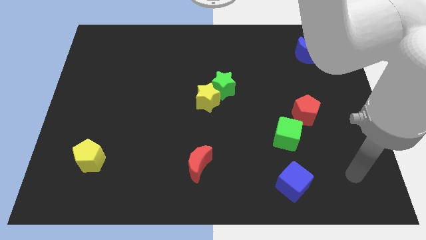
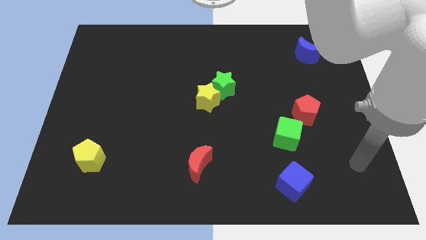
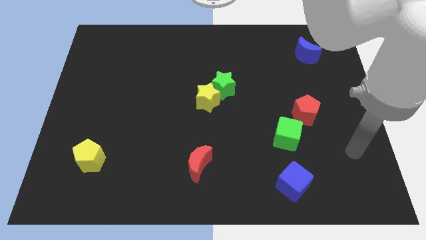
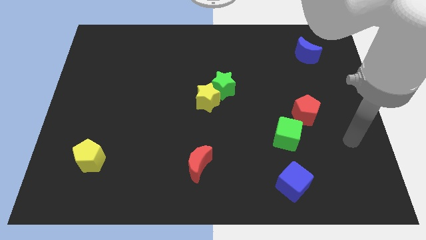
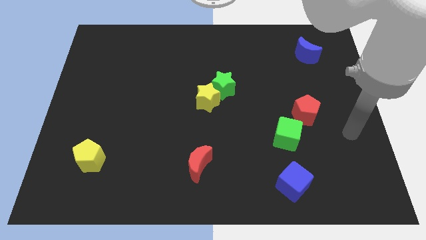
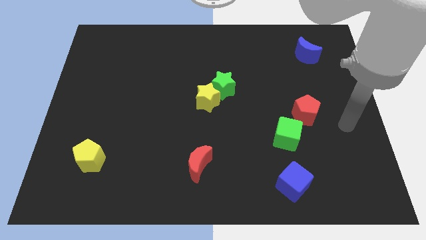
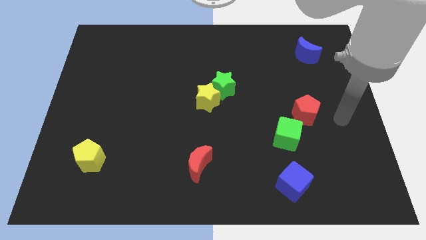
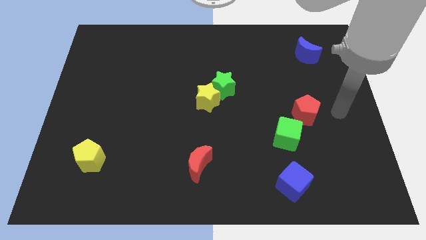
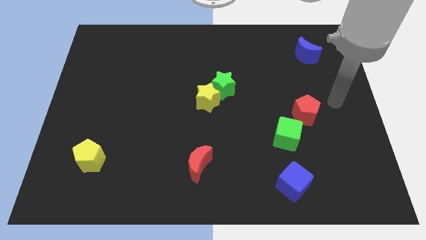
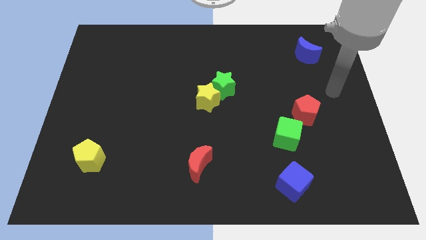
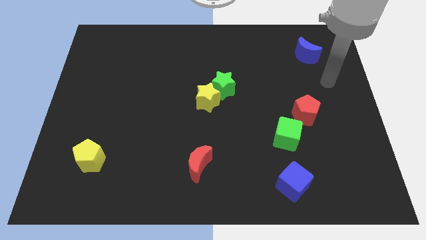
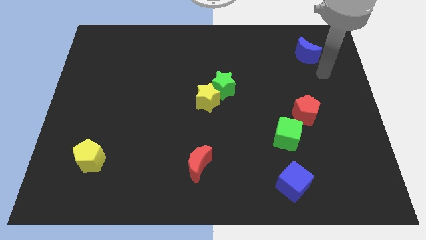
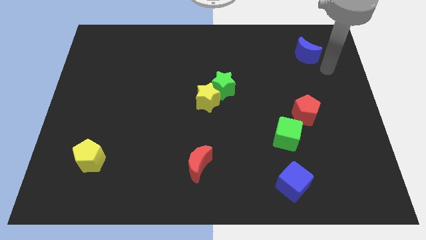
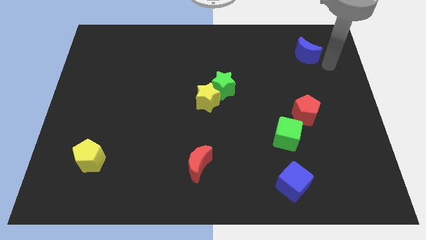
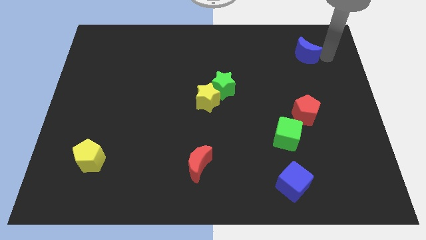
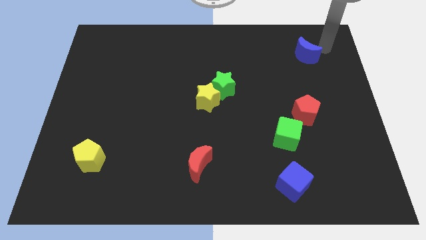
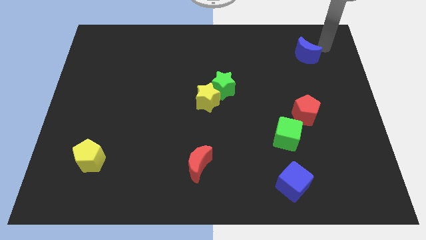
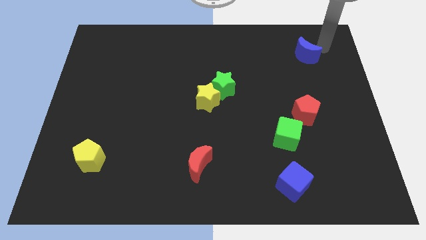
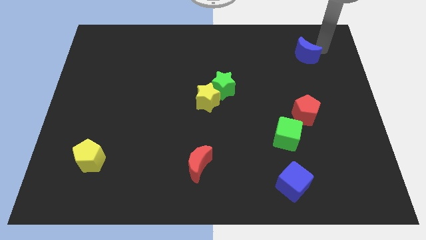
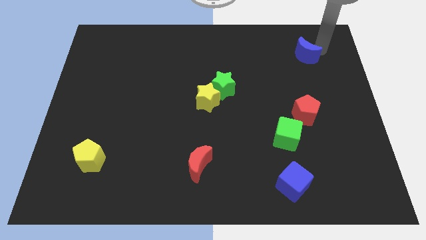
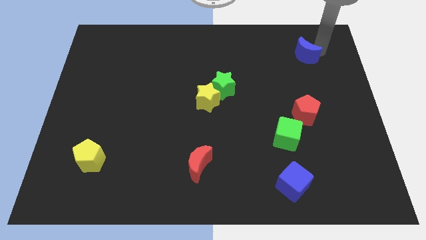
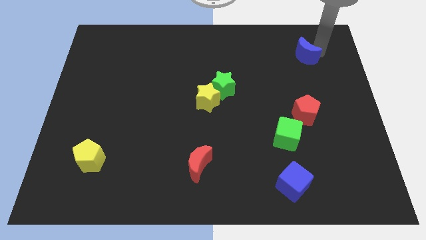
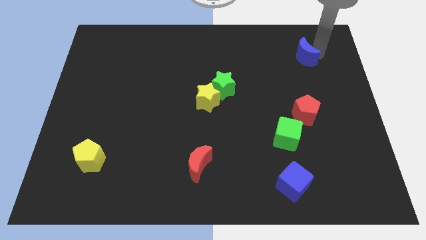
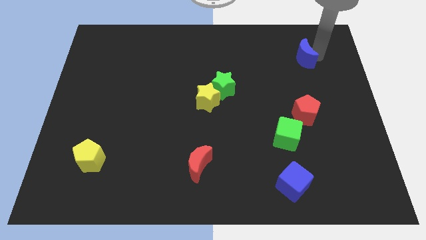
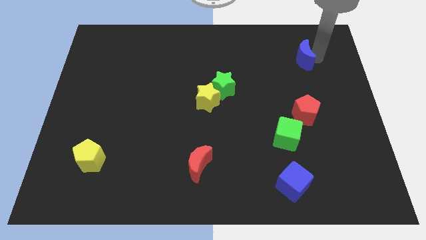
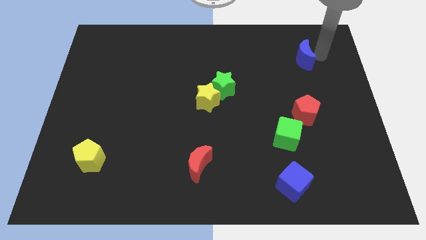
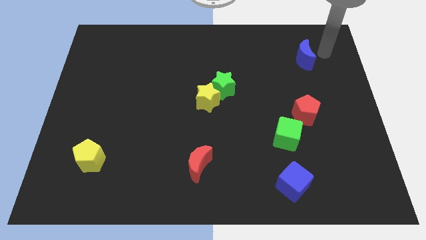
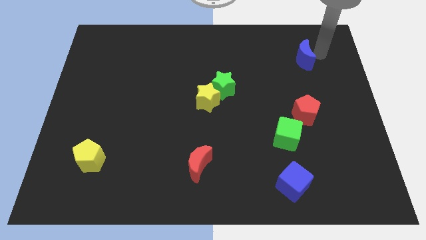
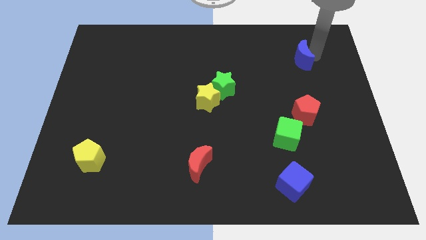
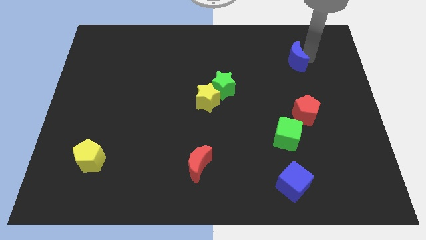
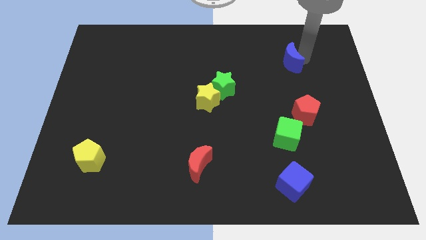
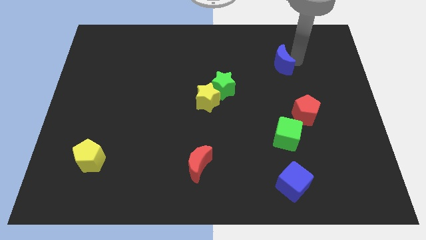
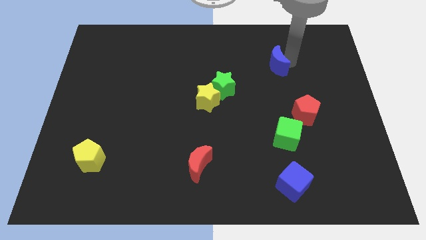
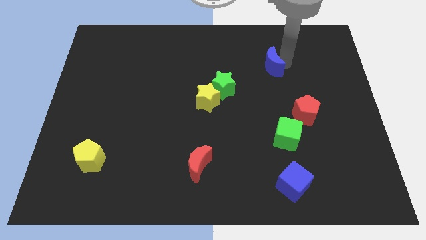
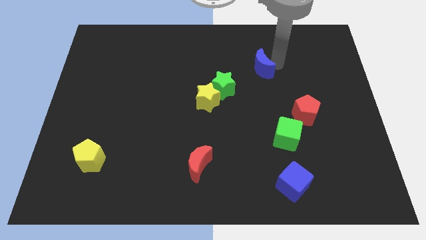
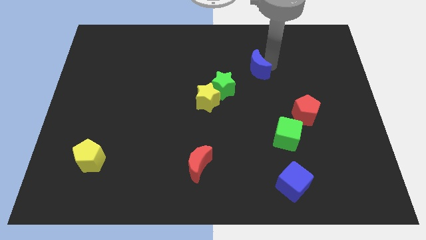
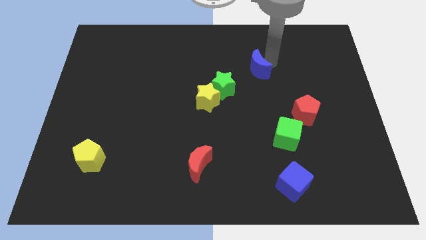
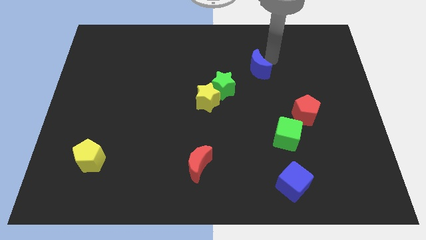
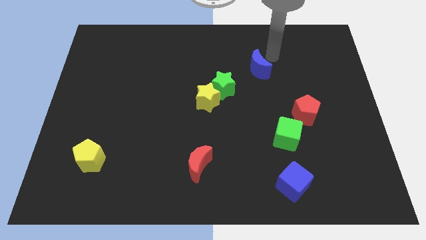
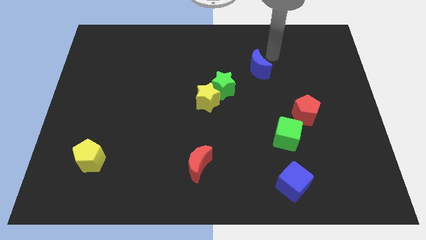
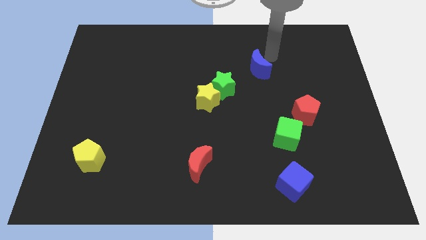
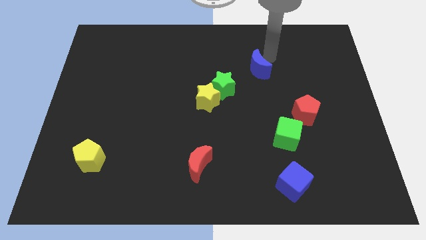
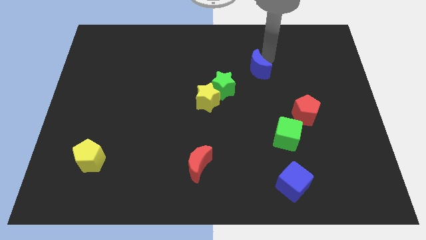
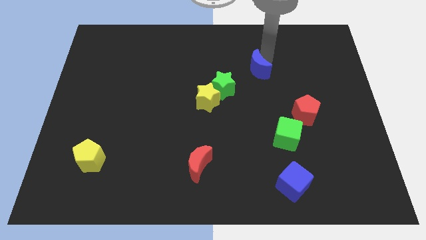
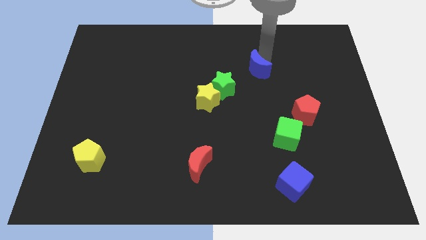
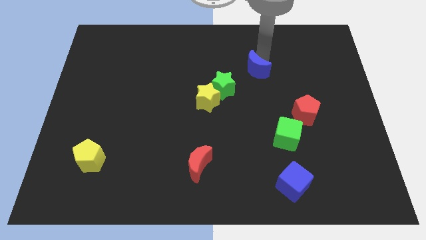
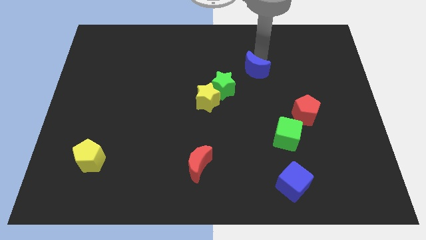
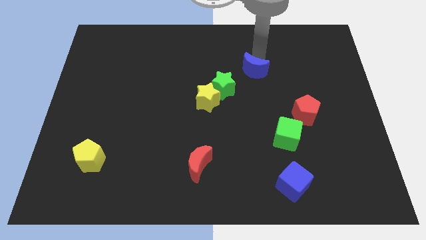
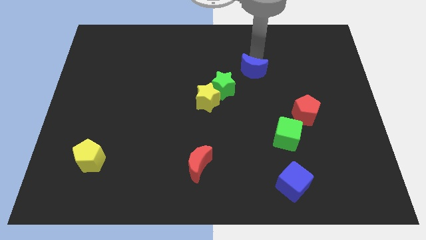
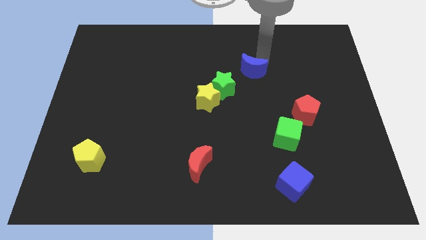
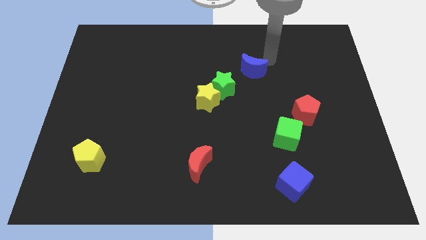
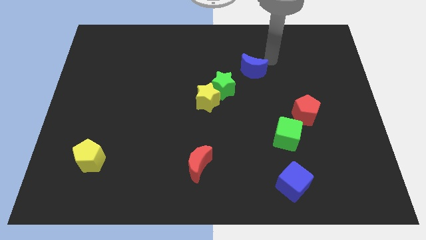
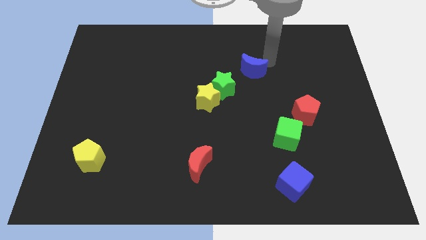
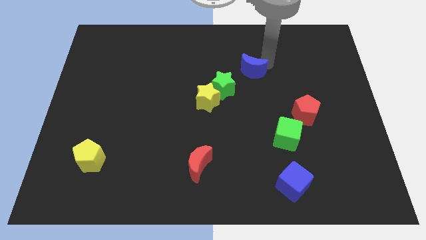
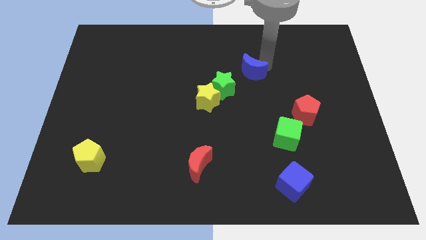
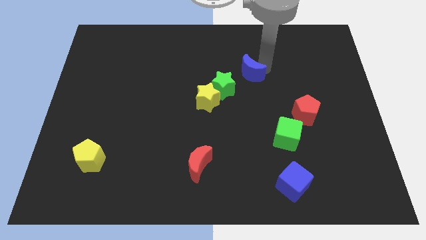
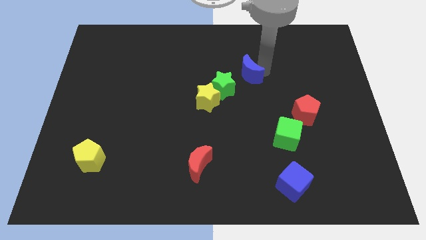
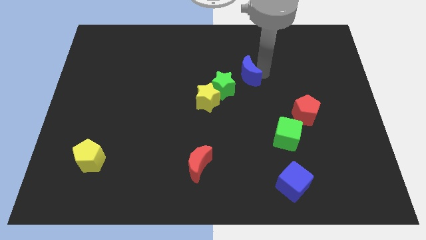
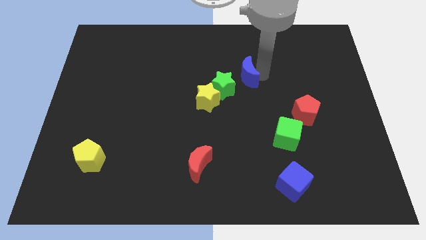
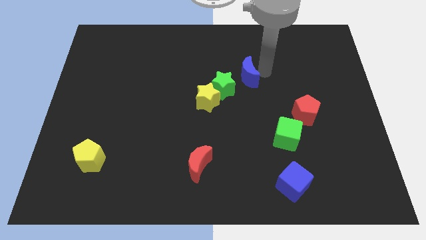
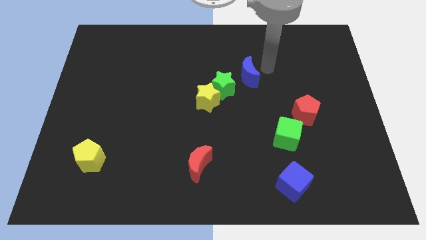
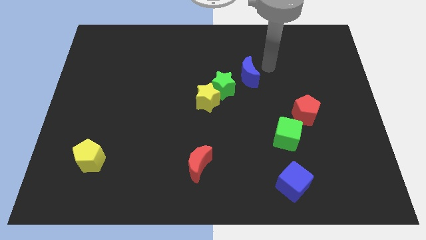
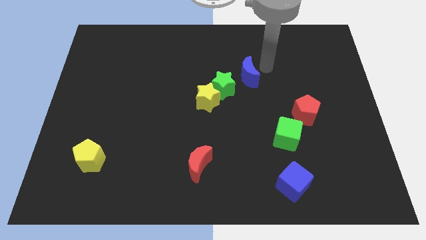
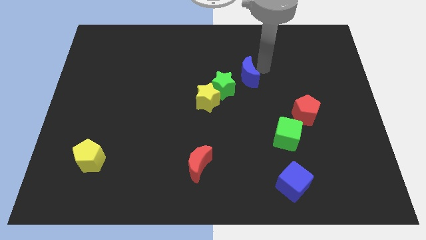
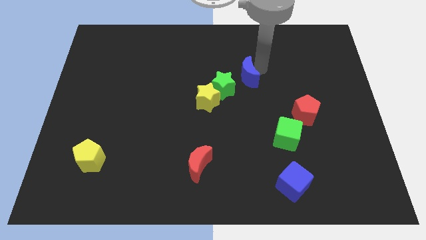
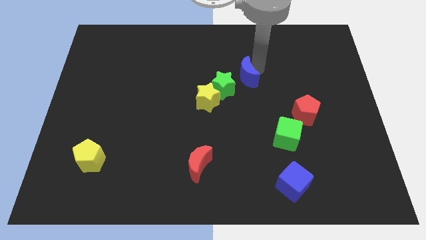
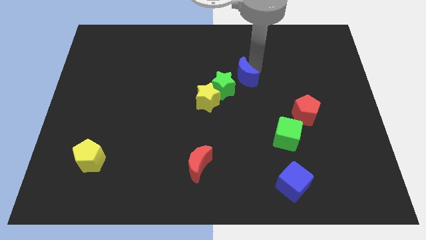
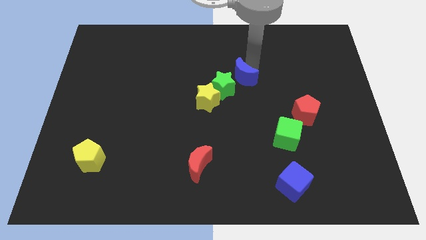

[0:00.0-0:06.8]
push the blue moon close to the green star
